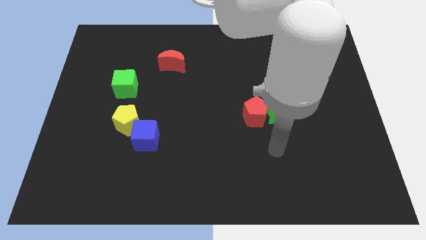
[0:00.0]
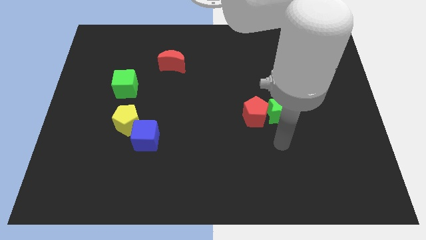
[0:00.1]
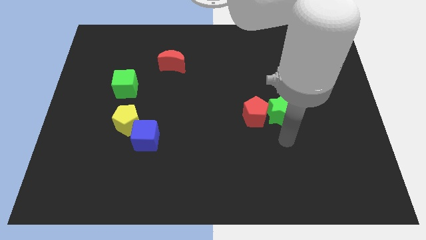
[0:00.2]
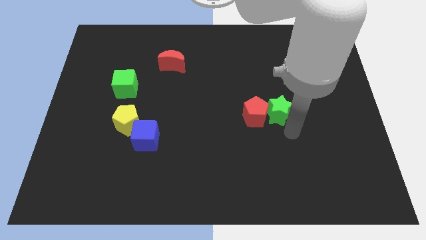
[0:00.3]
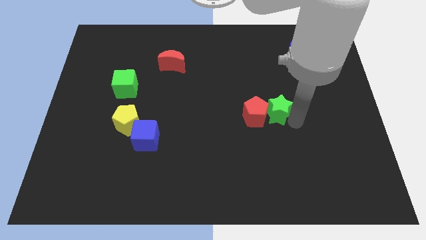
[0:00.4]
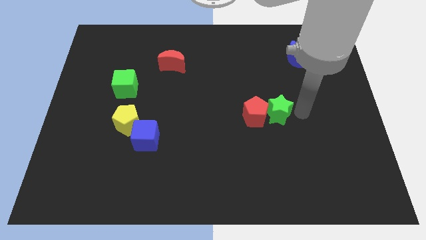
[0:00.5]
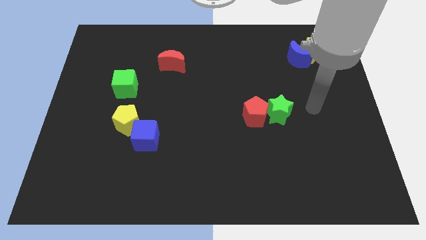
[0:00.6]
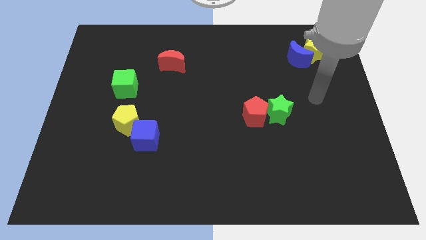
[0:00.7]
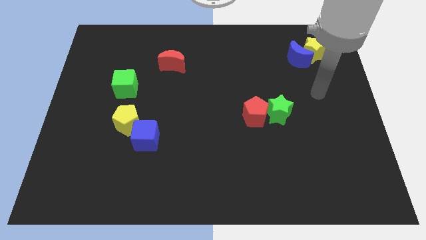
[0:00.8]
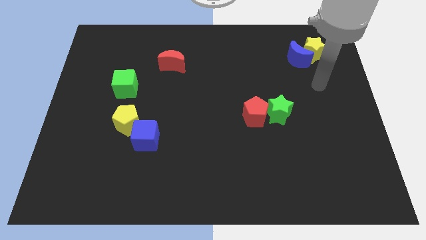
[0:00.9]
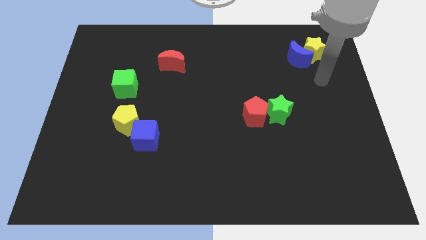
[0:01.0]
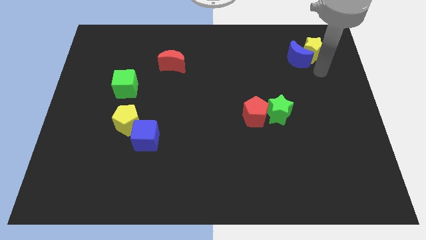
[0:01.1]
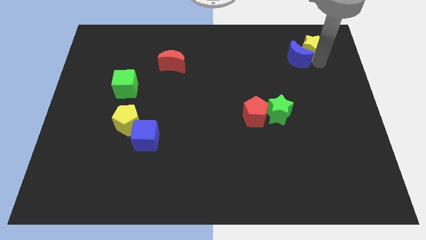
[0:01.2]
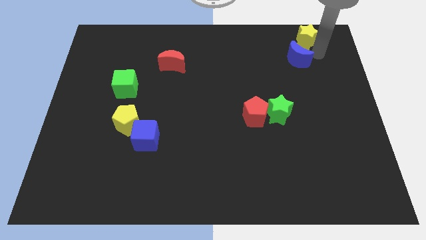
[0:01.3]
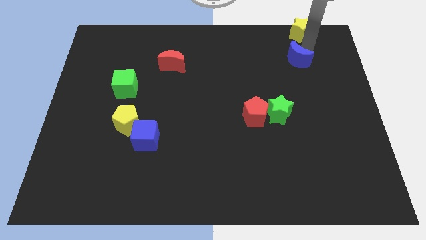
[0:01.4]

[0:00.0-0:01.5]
move the blue moon away from the yellow star

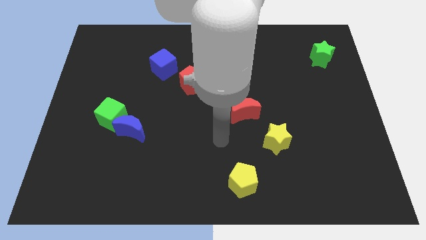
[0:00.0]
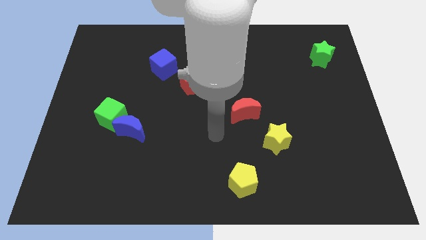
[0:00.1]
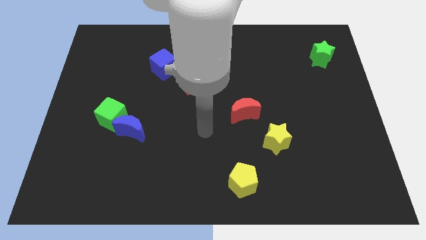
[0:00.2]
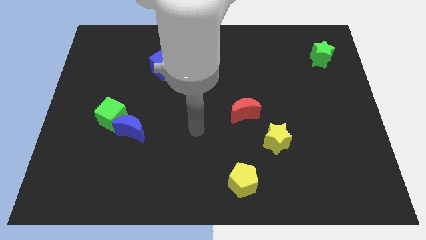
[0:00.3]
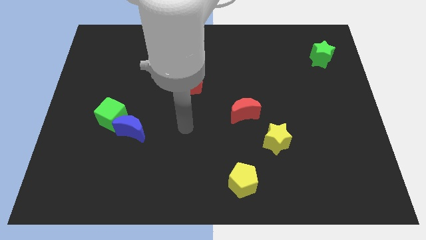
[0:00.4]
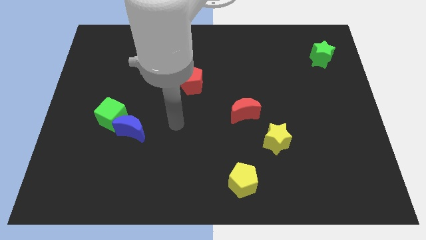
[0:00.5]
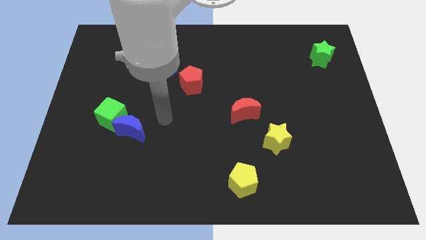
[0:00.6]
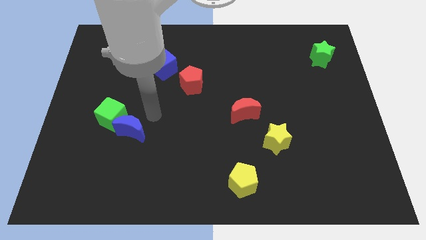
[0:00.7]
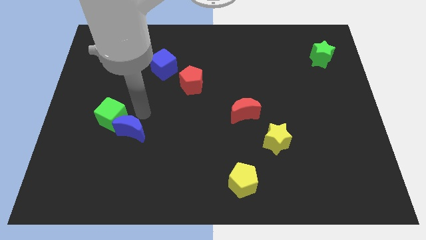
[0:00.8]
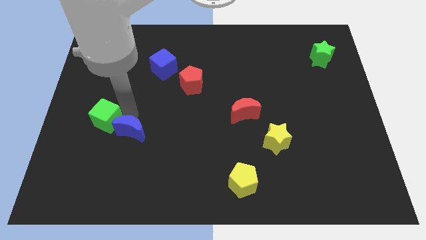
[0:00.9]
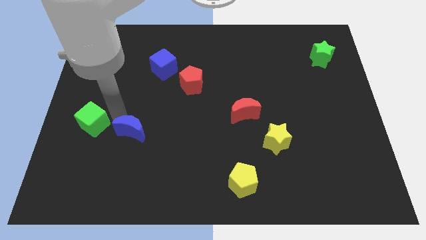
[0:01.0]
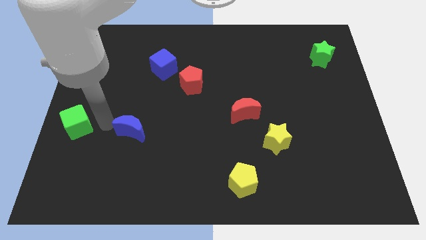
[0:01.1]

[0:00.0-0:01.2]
move the blue moon away from the green cube

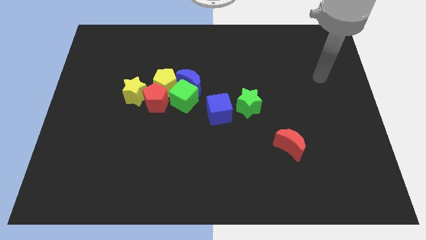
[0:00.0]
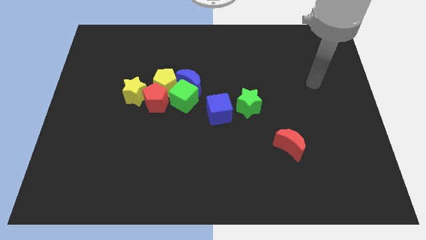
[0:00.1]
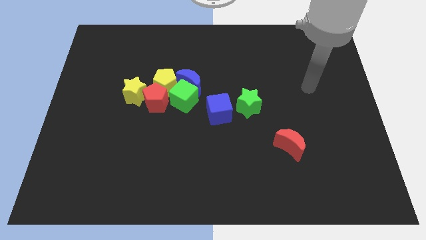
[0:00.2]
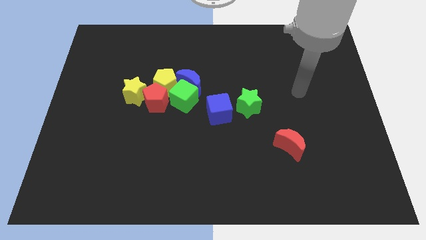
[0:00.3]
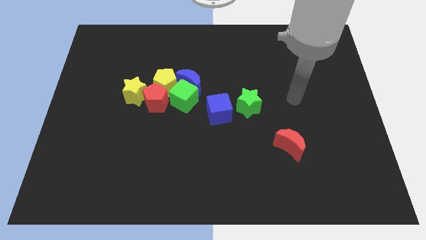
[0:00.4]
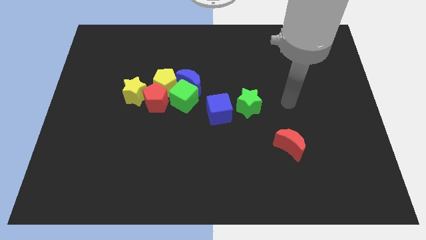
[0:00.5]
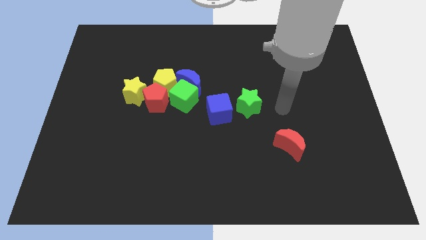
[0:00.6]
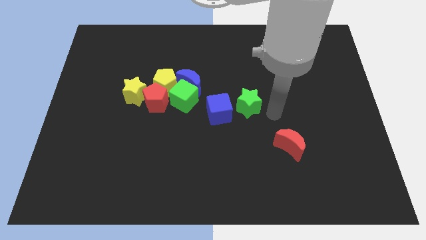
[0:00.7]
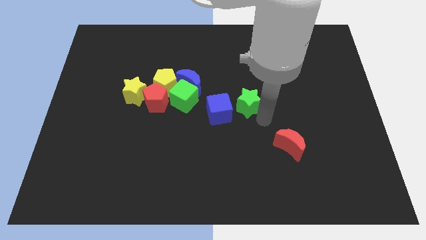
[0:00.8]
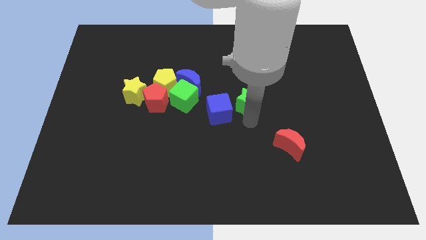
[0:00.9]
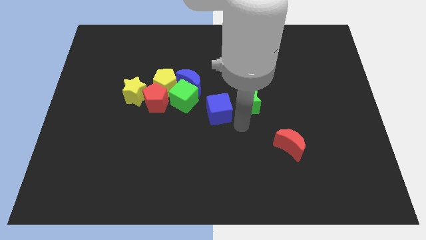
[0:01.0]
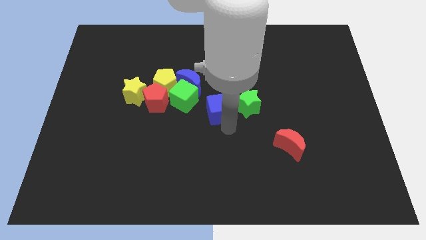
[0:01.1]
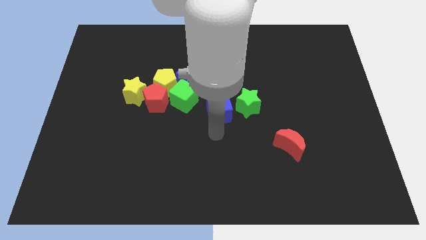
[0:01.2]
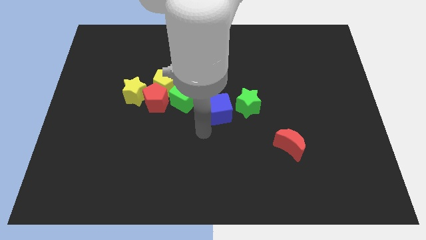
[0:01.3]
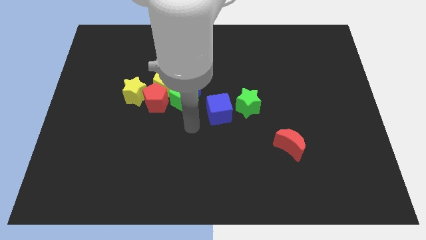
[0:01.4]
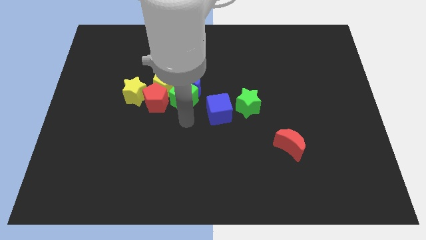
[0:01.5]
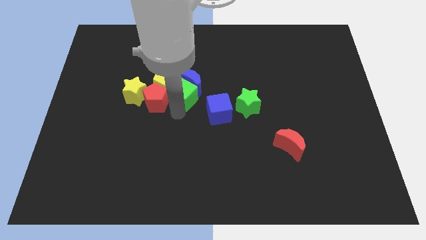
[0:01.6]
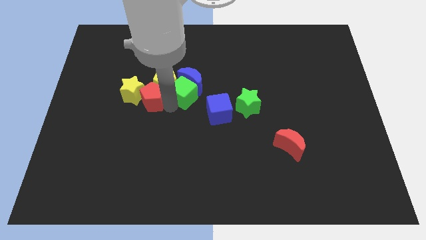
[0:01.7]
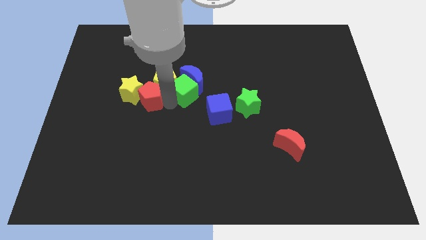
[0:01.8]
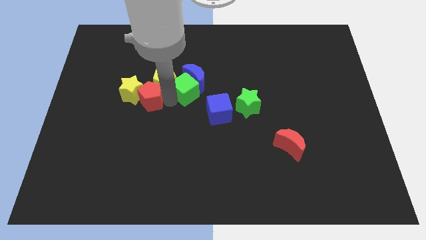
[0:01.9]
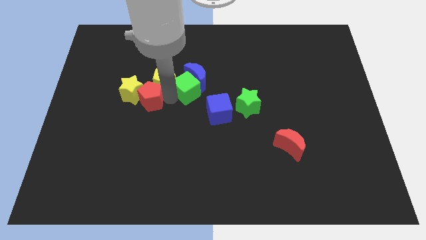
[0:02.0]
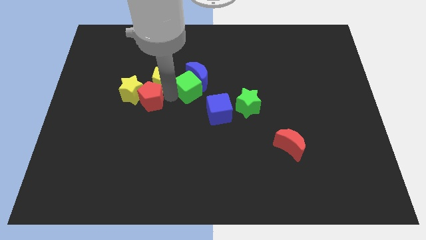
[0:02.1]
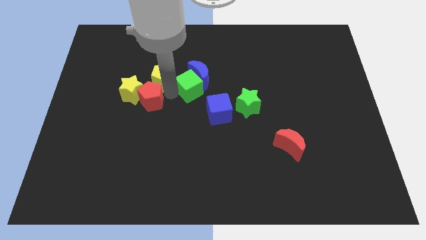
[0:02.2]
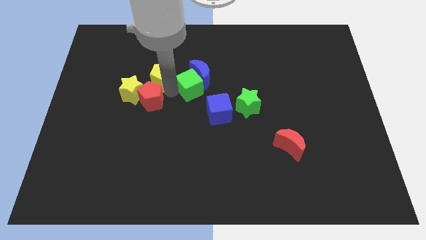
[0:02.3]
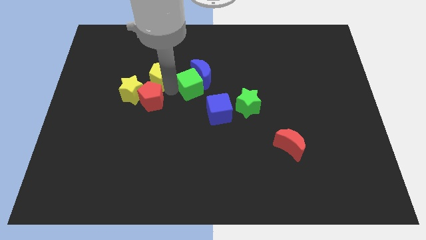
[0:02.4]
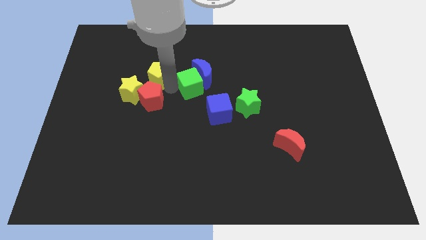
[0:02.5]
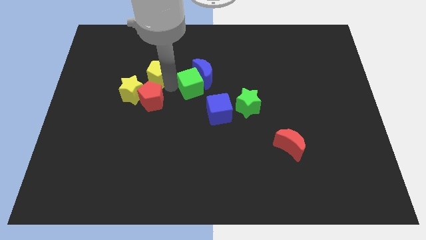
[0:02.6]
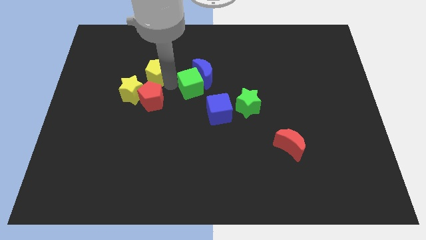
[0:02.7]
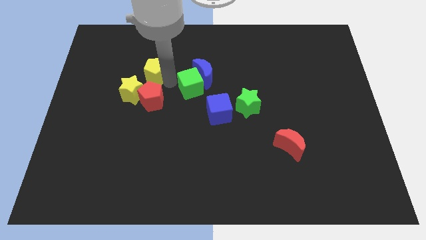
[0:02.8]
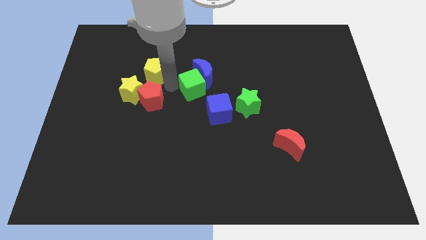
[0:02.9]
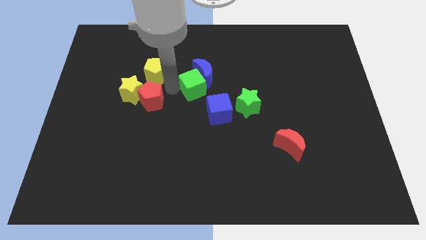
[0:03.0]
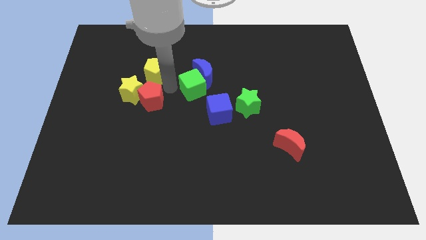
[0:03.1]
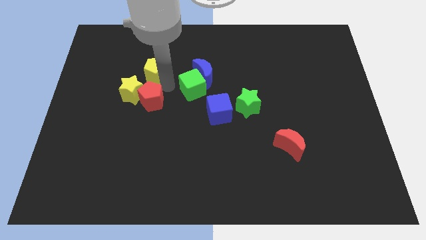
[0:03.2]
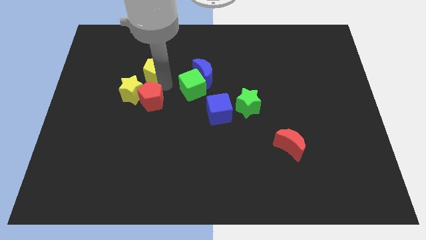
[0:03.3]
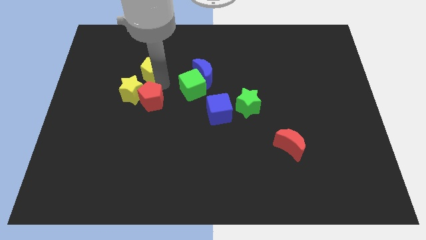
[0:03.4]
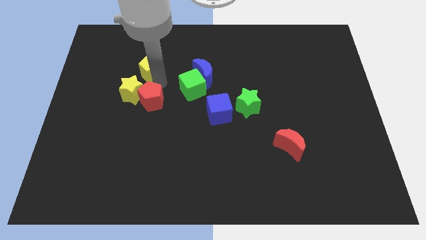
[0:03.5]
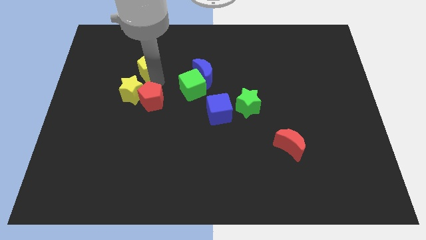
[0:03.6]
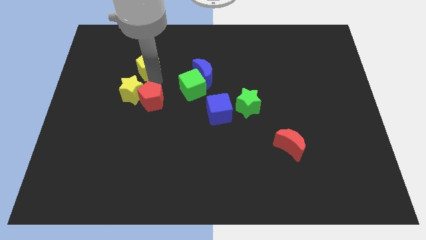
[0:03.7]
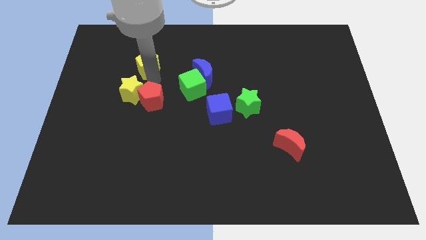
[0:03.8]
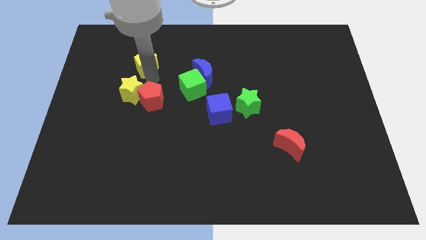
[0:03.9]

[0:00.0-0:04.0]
pull the yellow pentagon apart from the group

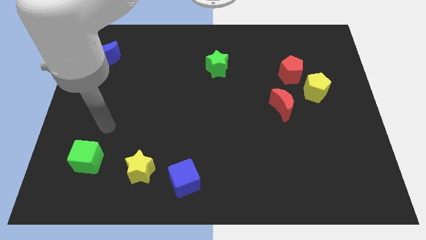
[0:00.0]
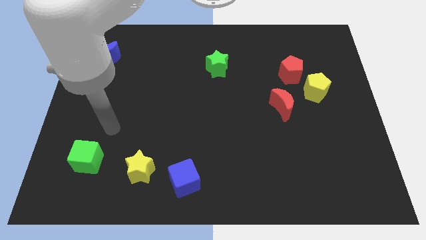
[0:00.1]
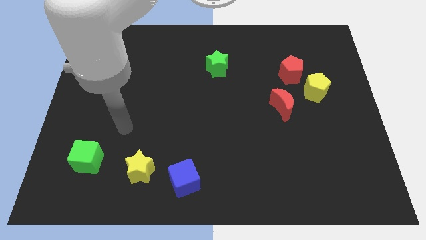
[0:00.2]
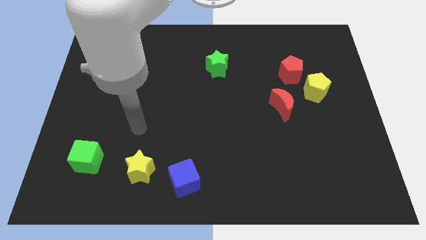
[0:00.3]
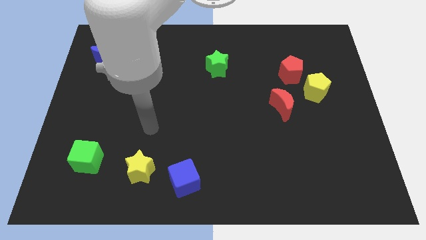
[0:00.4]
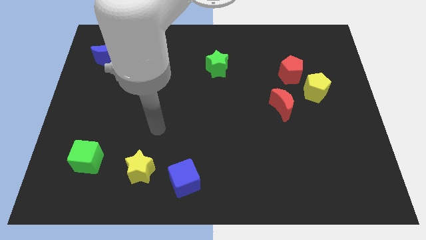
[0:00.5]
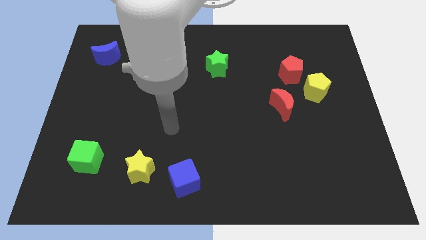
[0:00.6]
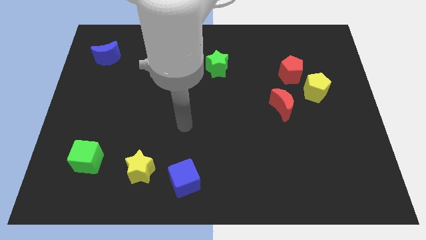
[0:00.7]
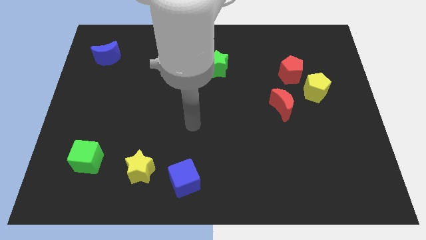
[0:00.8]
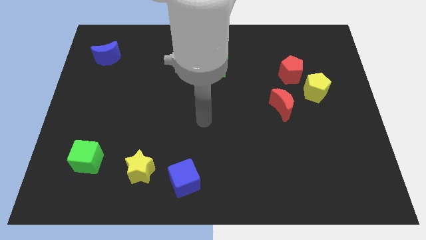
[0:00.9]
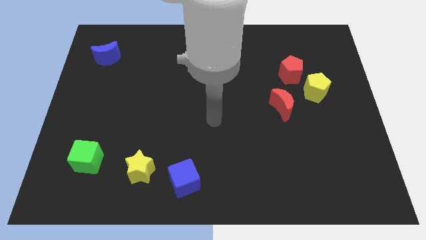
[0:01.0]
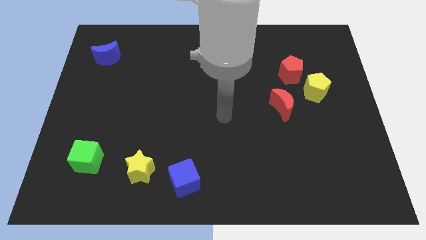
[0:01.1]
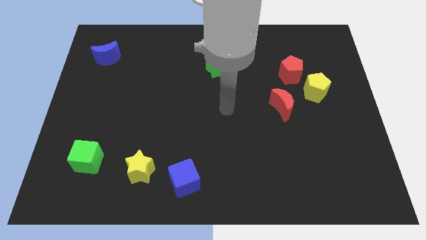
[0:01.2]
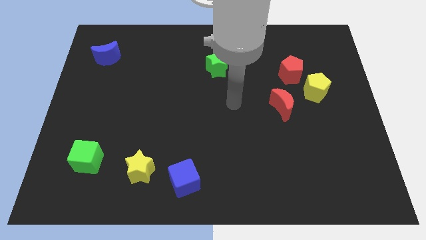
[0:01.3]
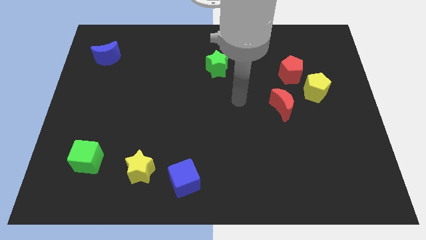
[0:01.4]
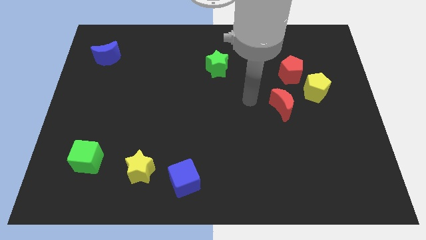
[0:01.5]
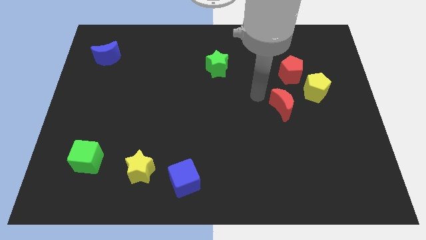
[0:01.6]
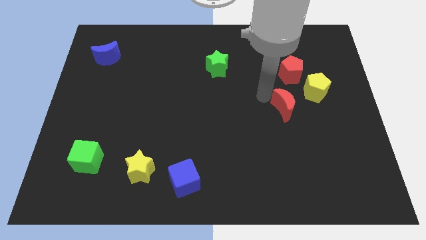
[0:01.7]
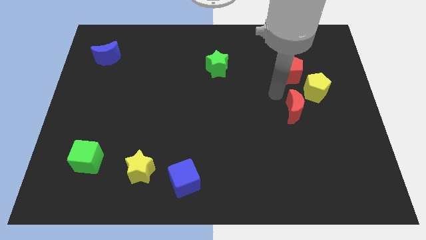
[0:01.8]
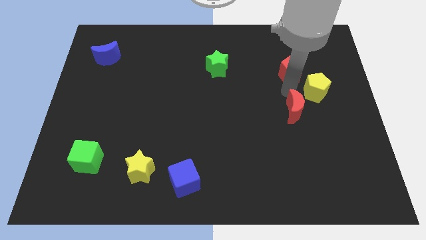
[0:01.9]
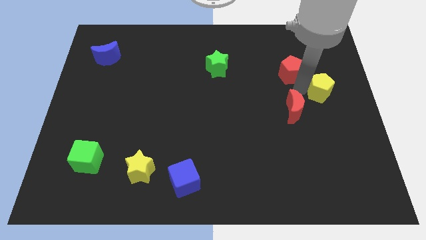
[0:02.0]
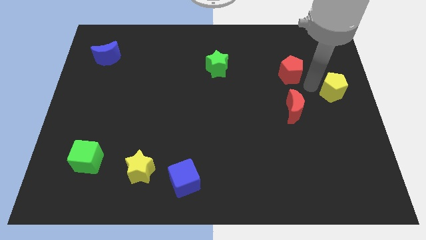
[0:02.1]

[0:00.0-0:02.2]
separate the red pentagon from the yellow pentagon

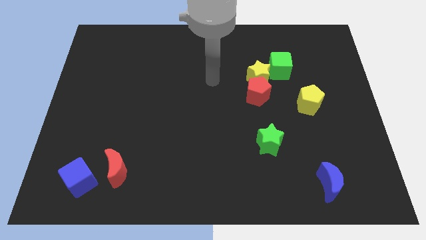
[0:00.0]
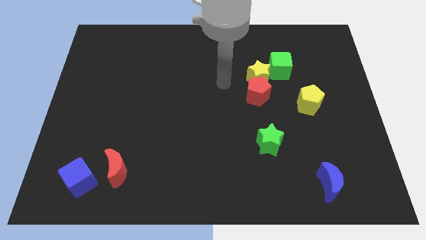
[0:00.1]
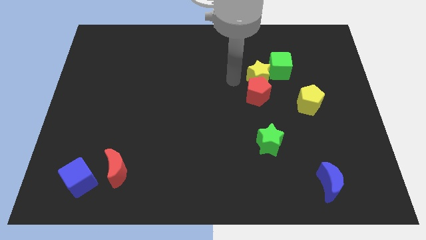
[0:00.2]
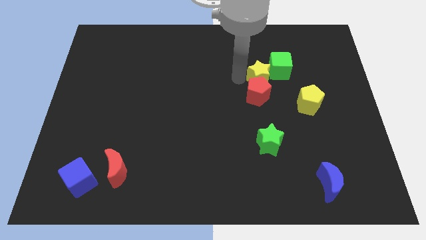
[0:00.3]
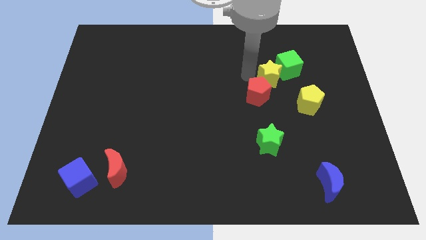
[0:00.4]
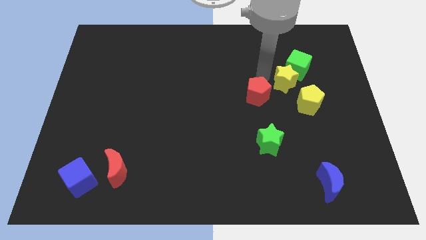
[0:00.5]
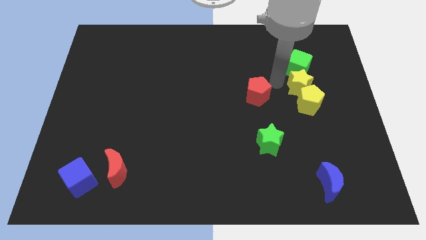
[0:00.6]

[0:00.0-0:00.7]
separate the red pentagon from the yellow star
